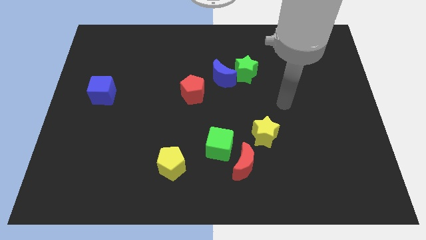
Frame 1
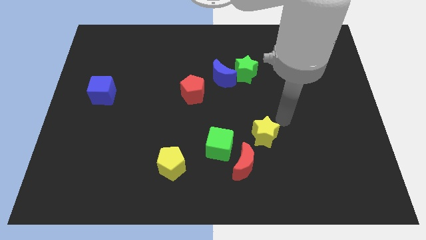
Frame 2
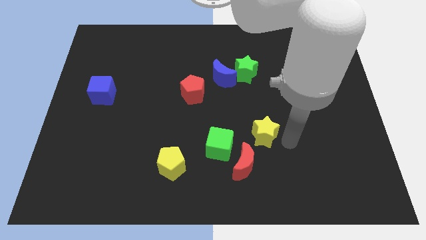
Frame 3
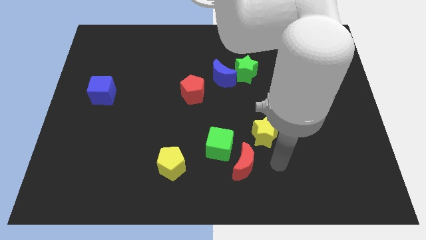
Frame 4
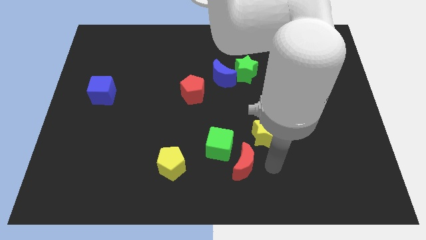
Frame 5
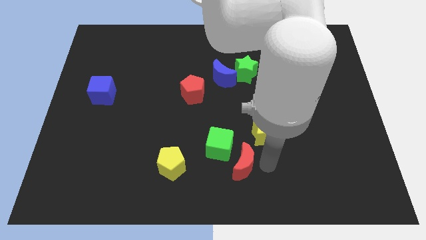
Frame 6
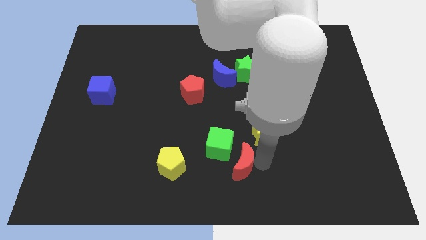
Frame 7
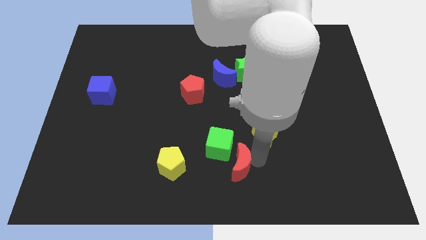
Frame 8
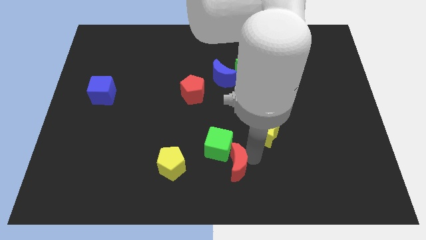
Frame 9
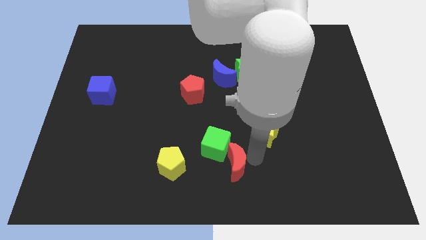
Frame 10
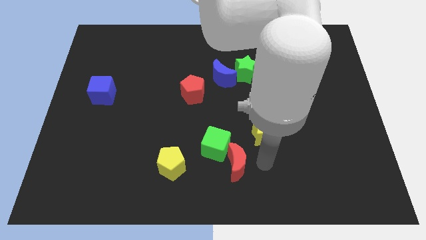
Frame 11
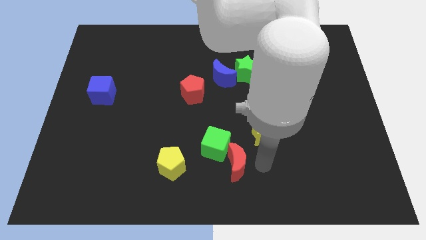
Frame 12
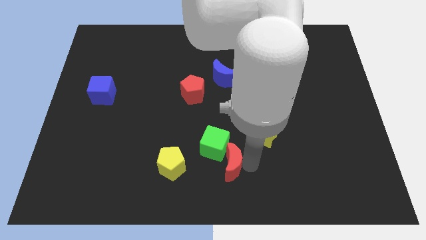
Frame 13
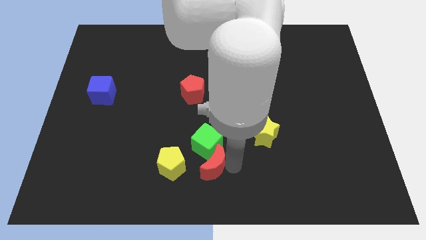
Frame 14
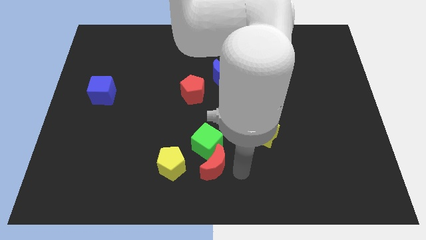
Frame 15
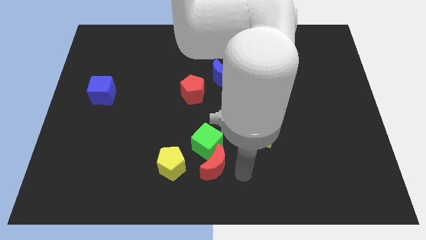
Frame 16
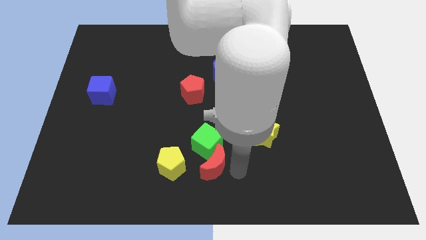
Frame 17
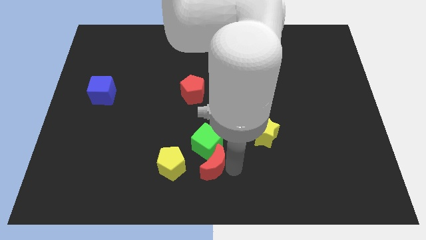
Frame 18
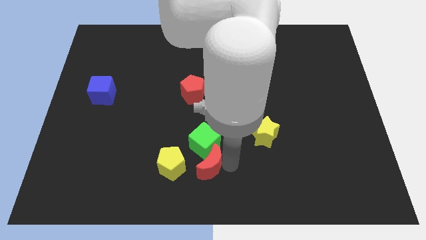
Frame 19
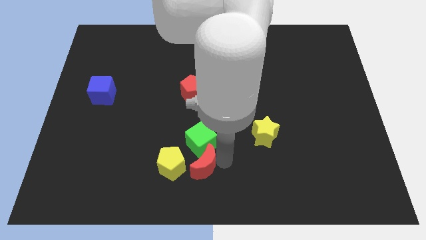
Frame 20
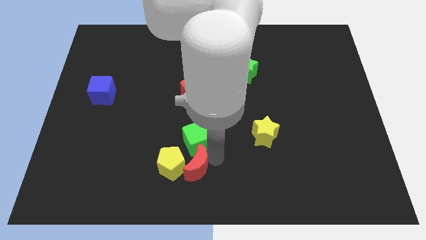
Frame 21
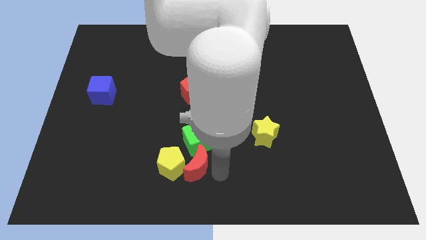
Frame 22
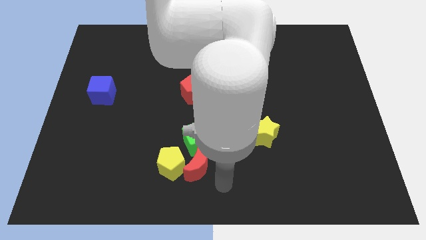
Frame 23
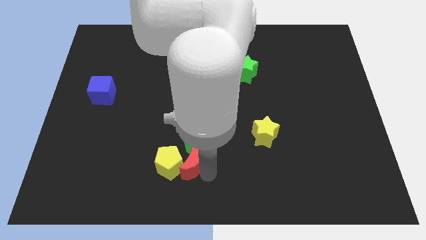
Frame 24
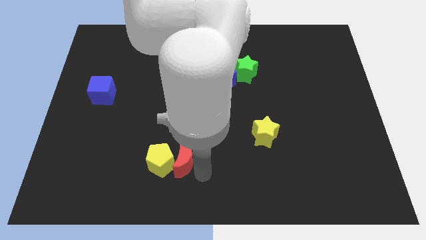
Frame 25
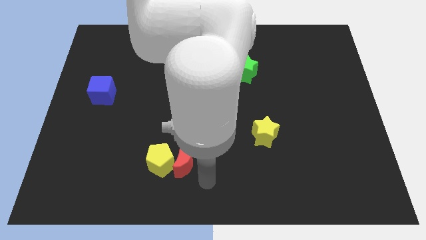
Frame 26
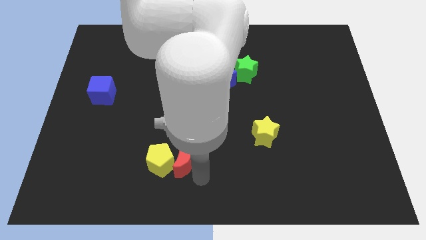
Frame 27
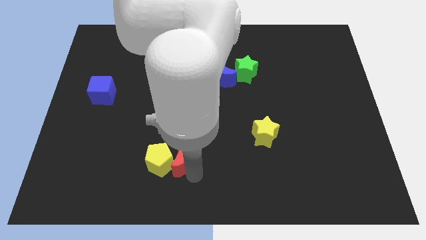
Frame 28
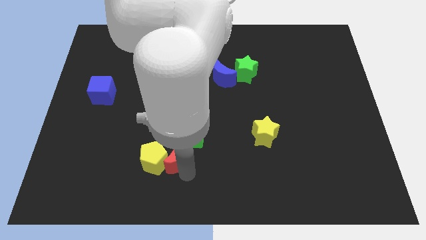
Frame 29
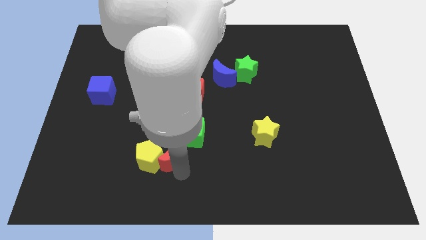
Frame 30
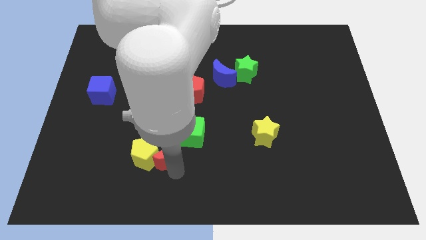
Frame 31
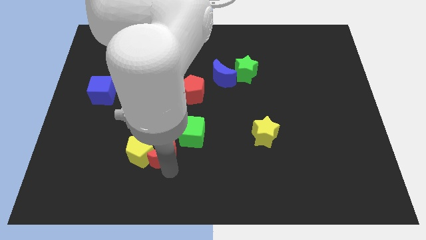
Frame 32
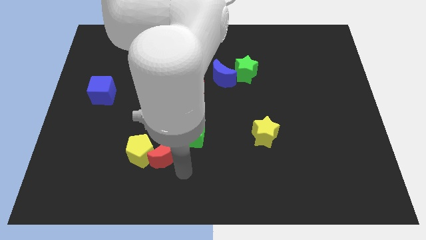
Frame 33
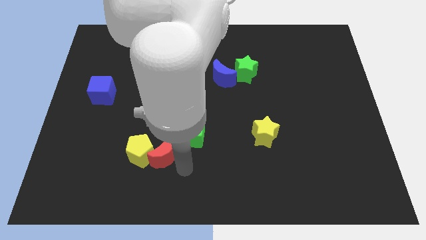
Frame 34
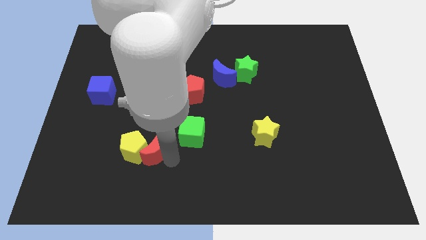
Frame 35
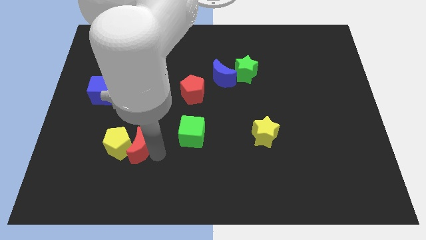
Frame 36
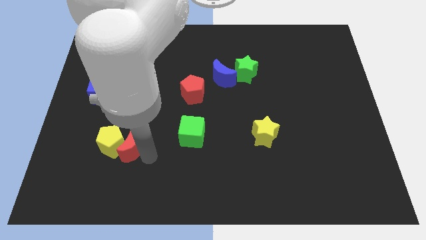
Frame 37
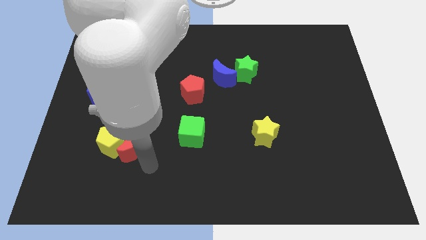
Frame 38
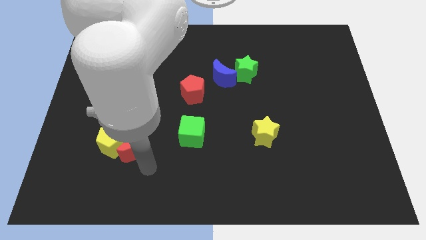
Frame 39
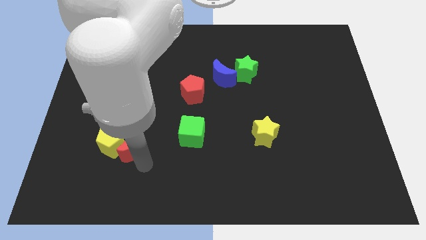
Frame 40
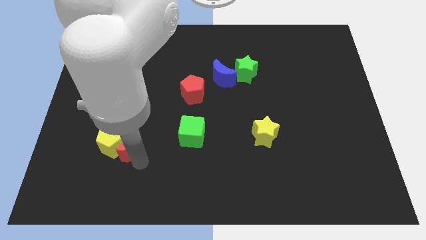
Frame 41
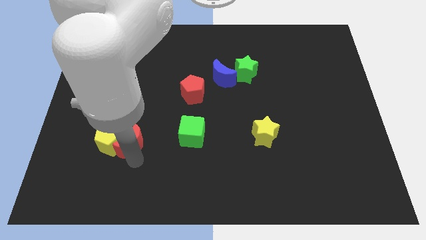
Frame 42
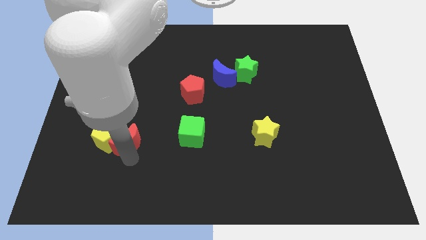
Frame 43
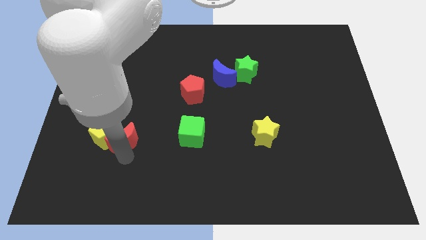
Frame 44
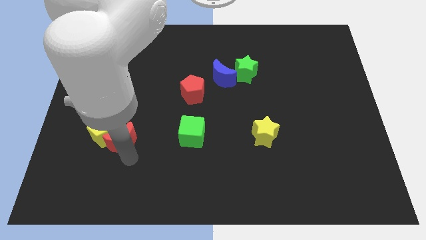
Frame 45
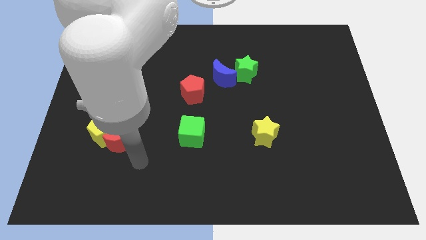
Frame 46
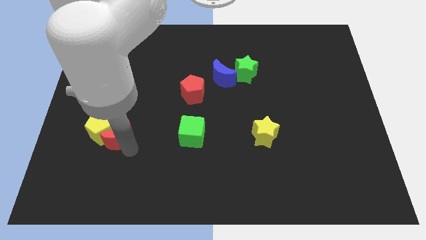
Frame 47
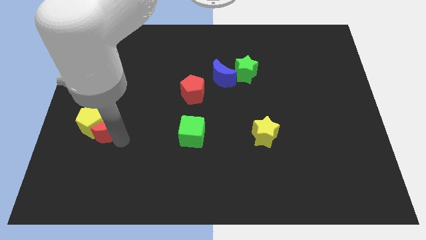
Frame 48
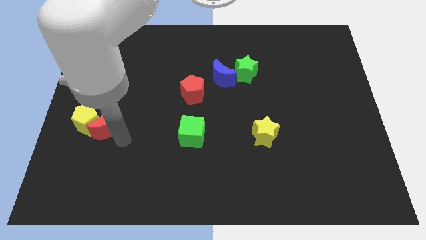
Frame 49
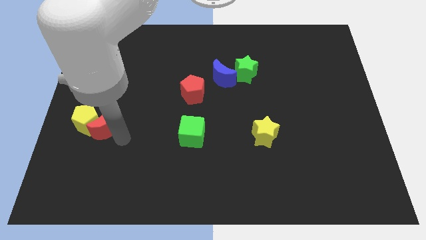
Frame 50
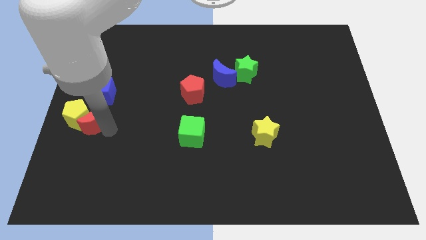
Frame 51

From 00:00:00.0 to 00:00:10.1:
push the red moon to the center left

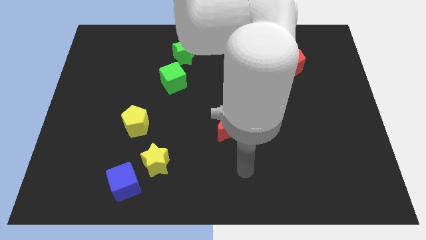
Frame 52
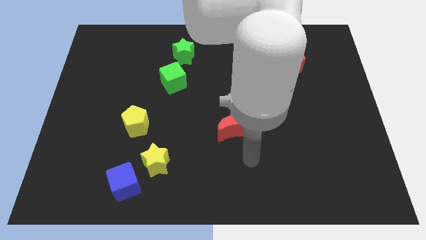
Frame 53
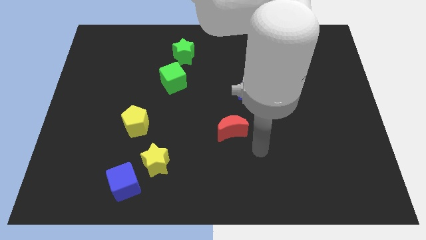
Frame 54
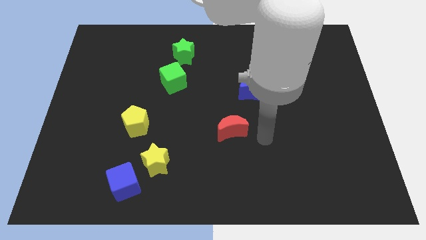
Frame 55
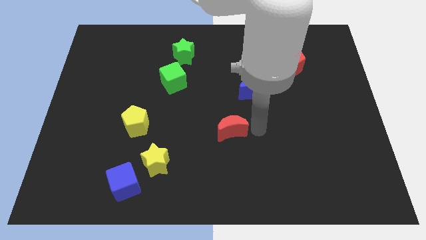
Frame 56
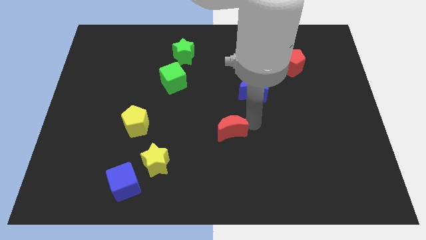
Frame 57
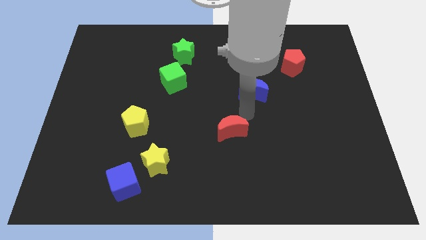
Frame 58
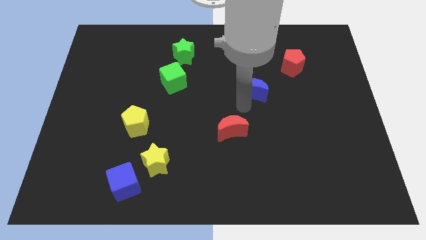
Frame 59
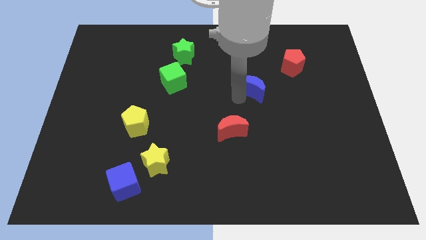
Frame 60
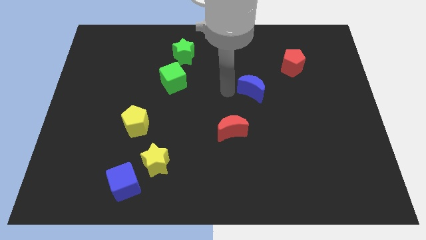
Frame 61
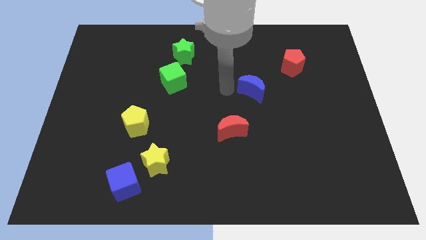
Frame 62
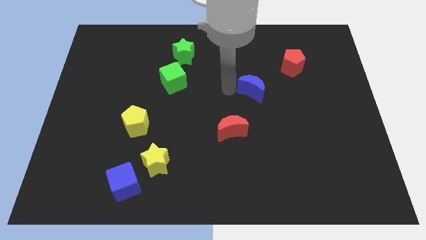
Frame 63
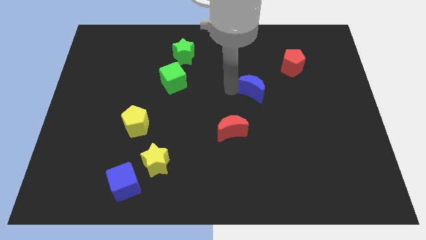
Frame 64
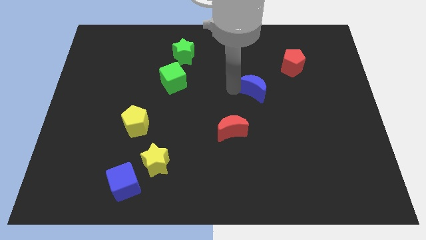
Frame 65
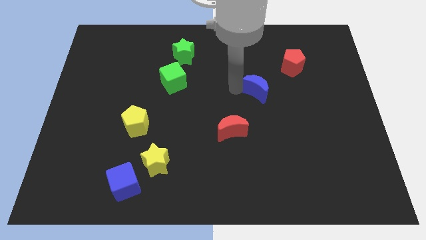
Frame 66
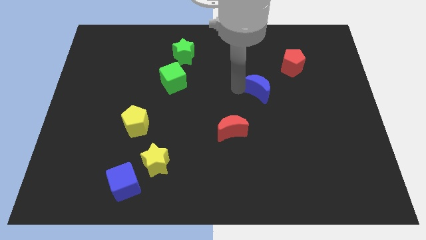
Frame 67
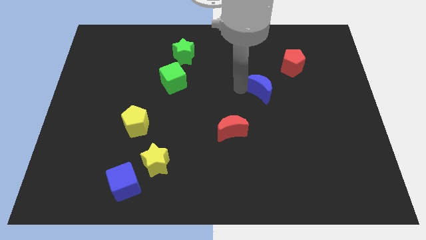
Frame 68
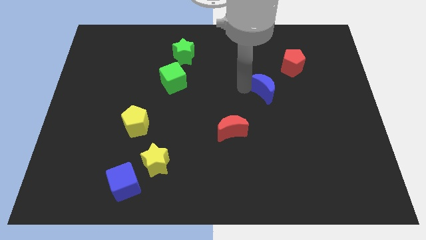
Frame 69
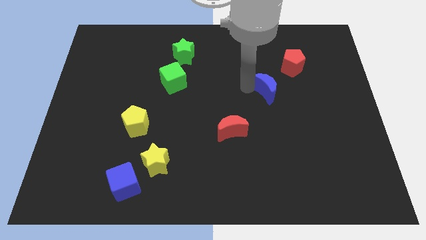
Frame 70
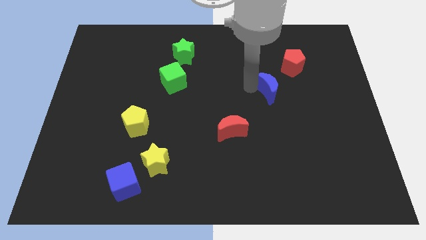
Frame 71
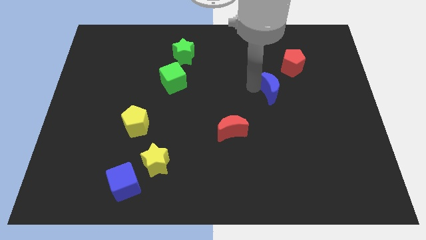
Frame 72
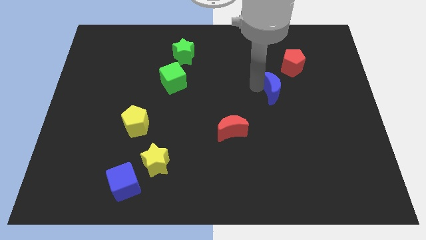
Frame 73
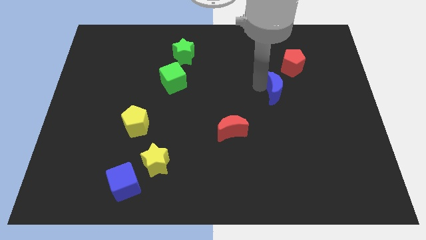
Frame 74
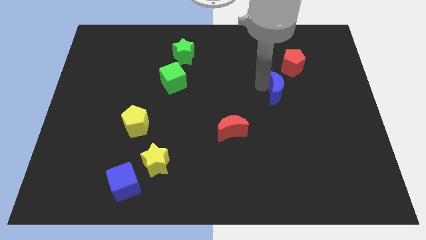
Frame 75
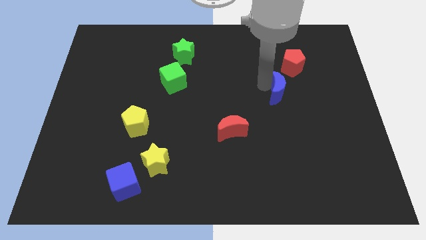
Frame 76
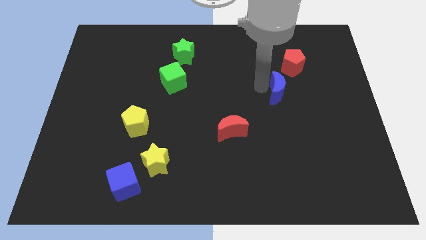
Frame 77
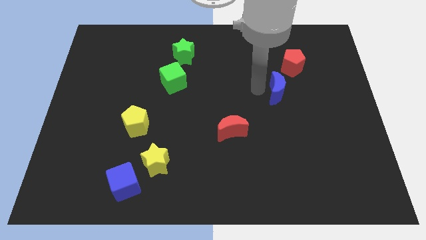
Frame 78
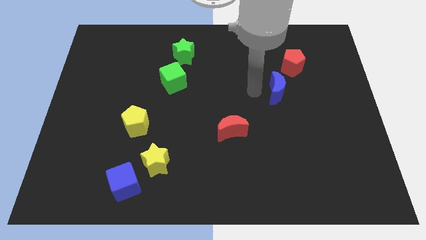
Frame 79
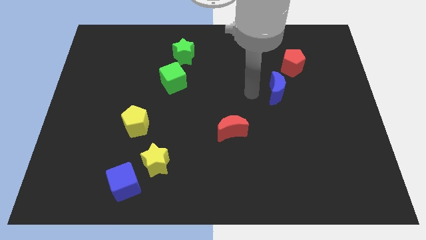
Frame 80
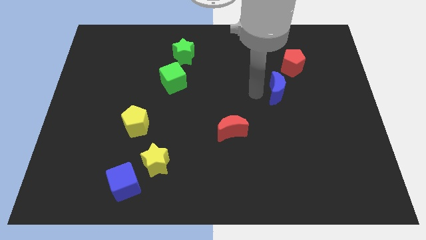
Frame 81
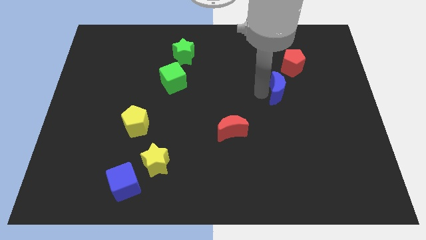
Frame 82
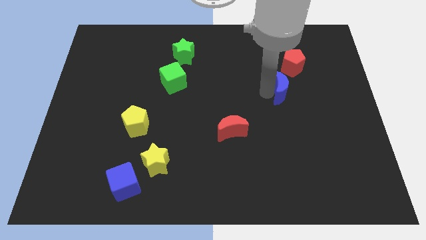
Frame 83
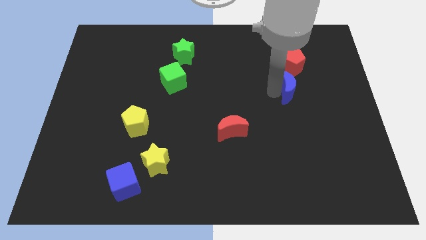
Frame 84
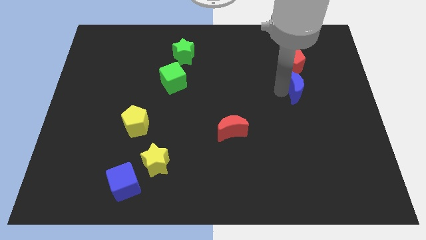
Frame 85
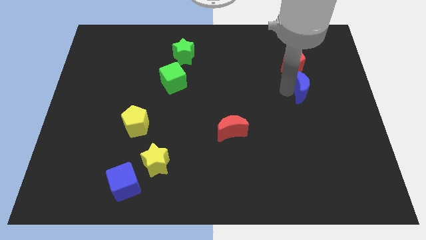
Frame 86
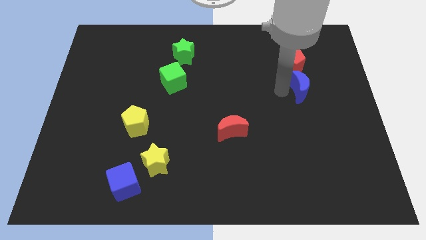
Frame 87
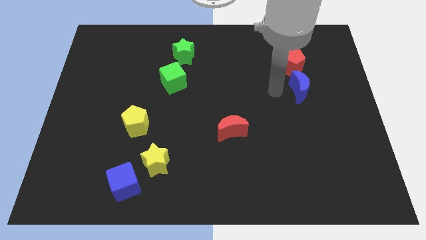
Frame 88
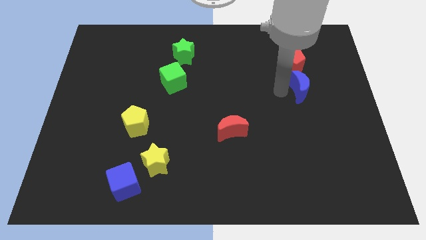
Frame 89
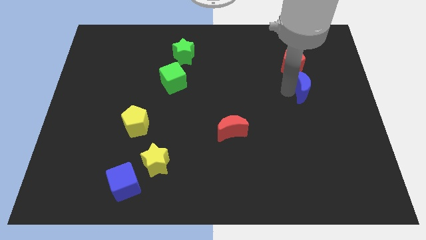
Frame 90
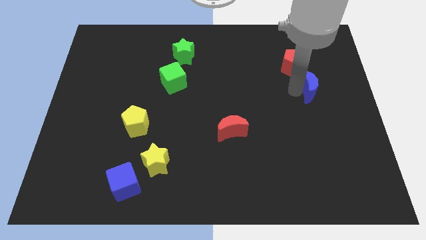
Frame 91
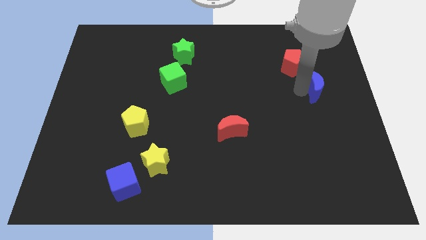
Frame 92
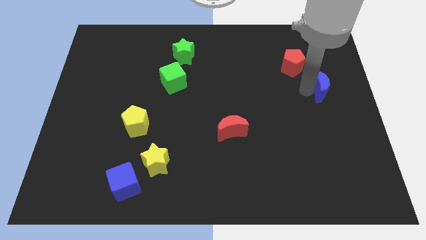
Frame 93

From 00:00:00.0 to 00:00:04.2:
put the blue moon to the right side
